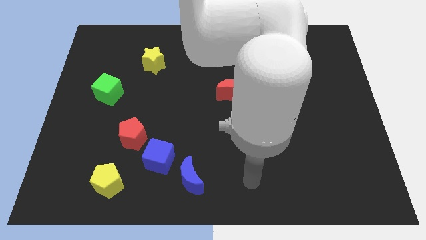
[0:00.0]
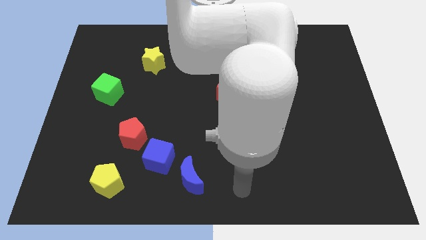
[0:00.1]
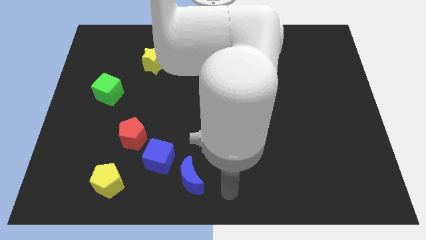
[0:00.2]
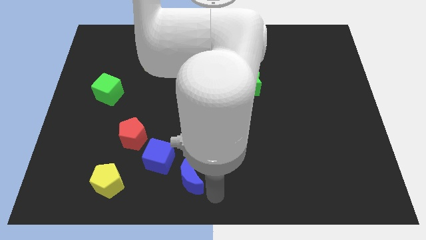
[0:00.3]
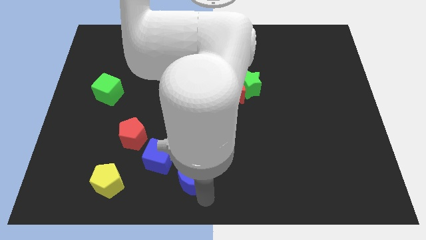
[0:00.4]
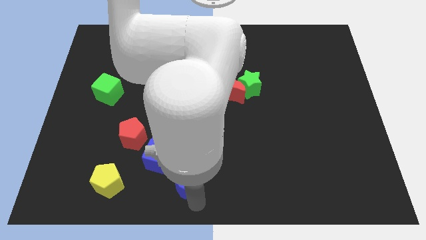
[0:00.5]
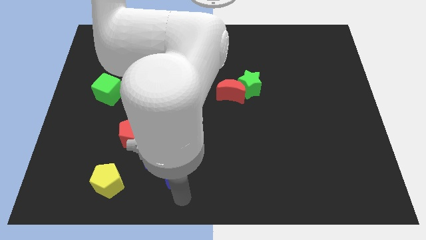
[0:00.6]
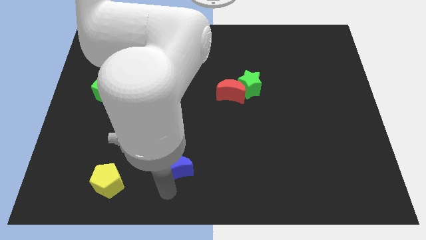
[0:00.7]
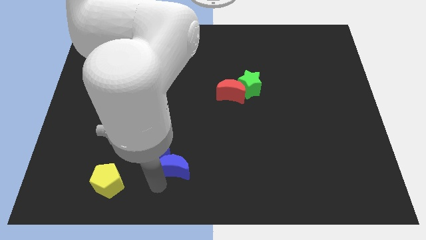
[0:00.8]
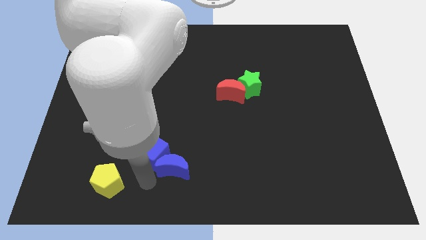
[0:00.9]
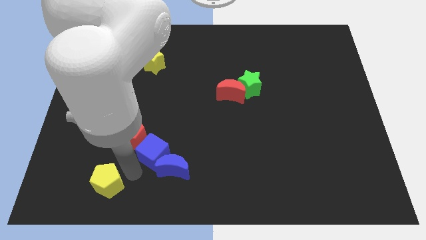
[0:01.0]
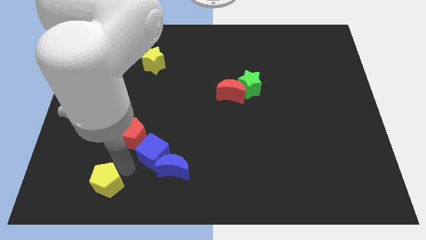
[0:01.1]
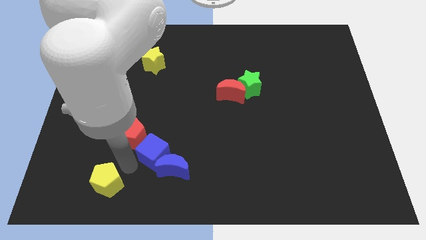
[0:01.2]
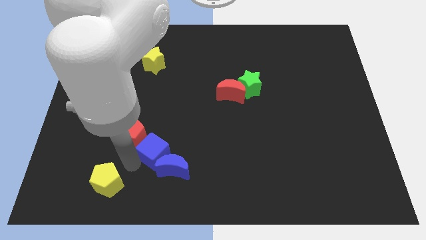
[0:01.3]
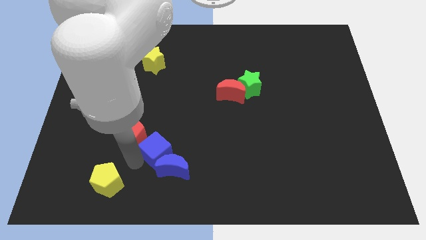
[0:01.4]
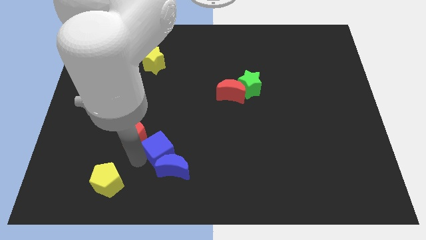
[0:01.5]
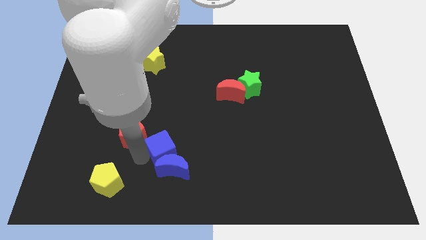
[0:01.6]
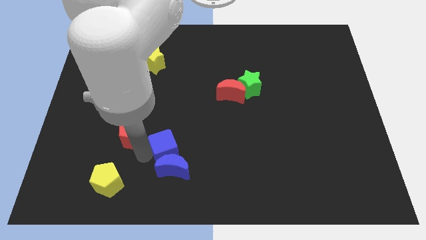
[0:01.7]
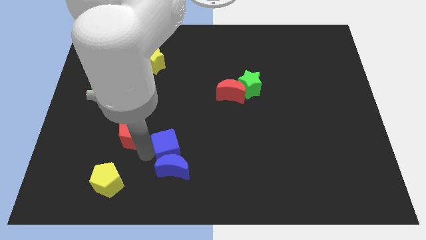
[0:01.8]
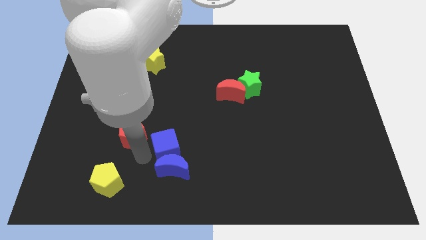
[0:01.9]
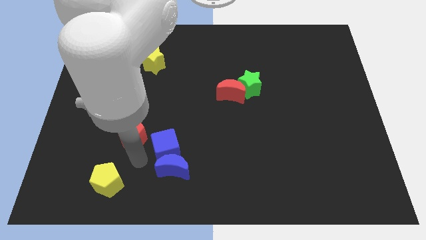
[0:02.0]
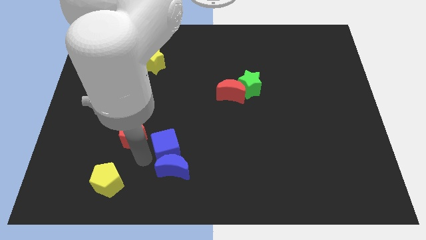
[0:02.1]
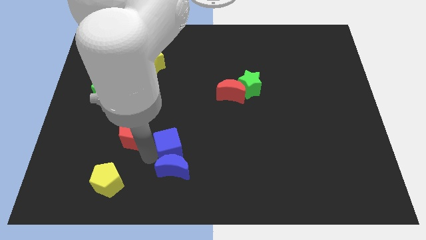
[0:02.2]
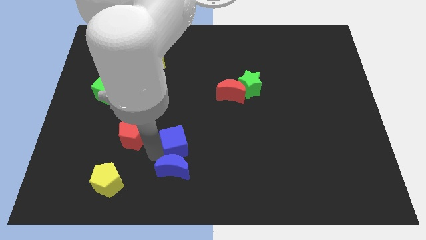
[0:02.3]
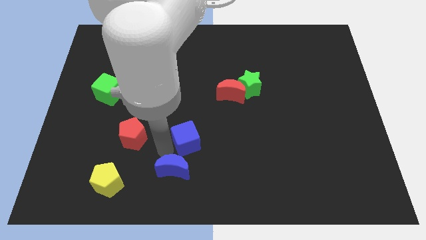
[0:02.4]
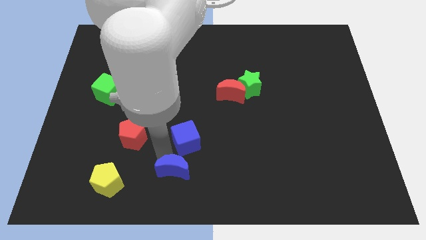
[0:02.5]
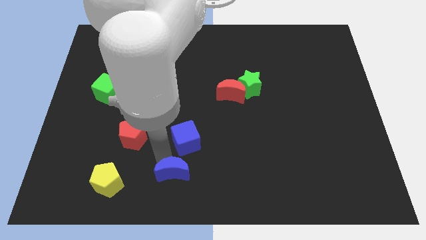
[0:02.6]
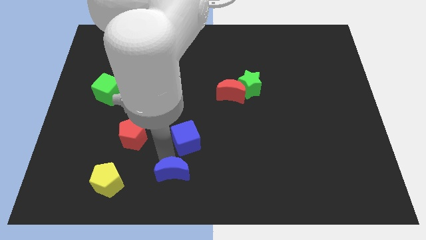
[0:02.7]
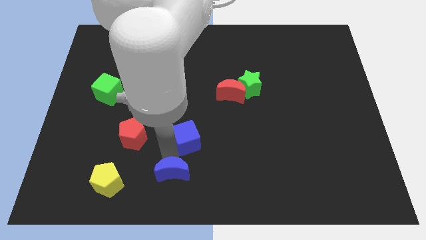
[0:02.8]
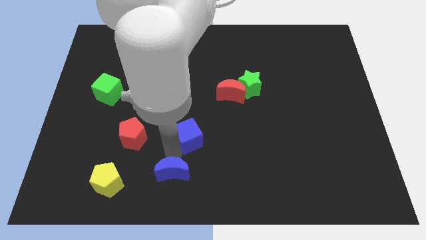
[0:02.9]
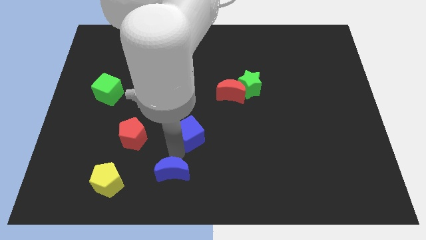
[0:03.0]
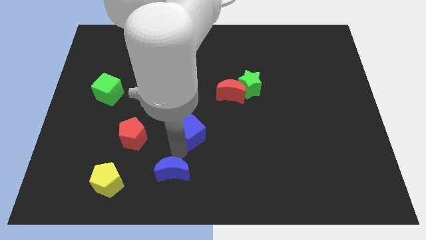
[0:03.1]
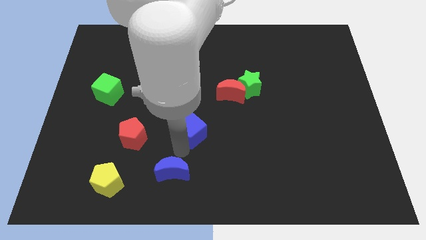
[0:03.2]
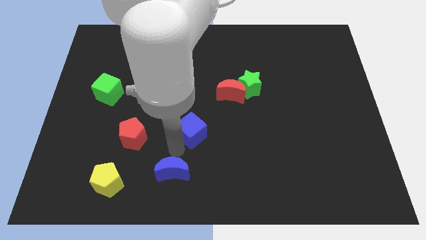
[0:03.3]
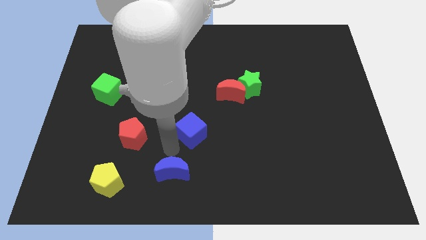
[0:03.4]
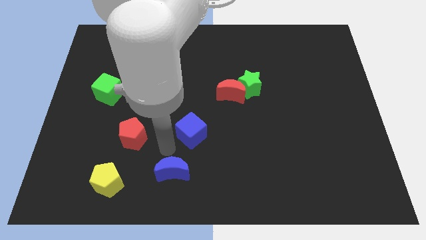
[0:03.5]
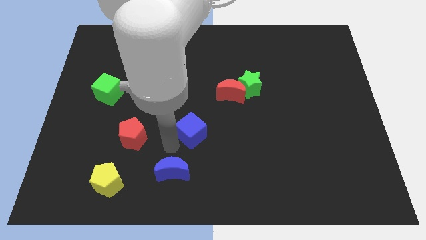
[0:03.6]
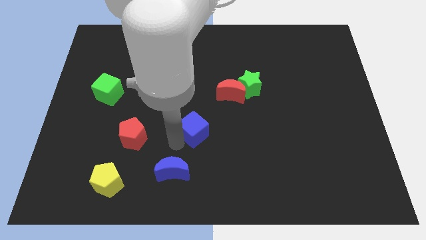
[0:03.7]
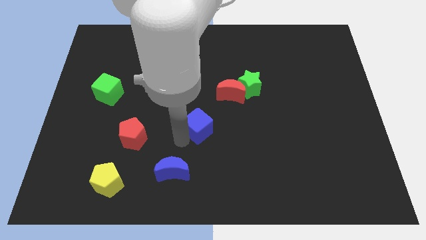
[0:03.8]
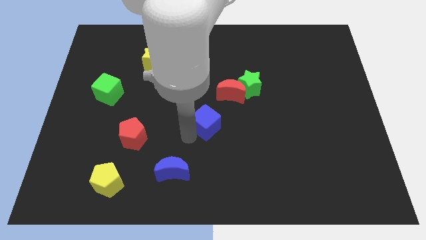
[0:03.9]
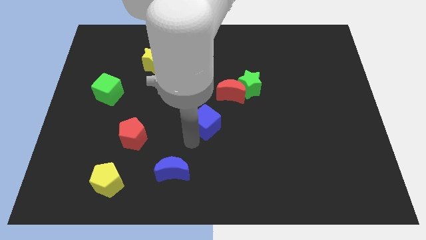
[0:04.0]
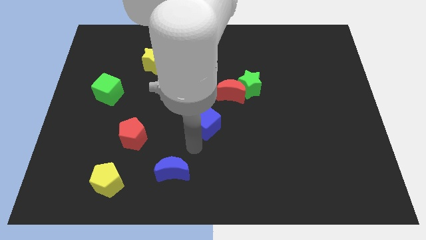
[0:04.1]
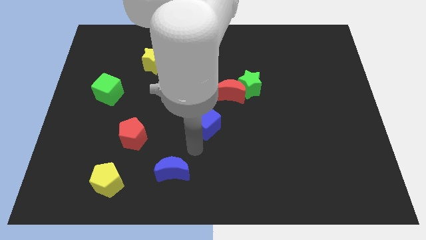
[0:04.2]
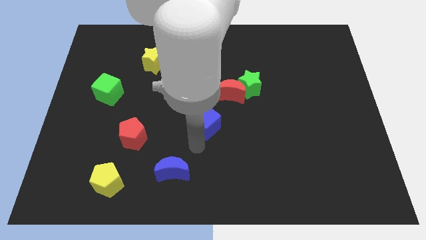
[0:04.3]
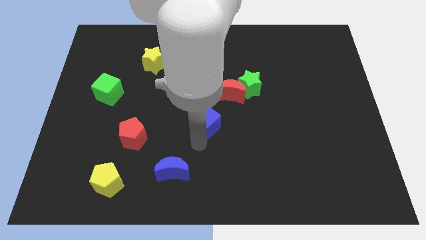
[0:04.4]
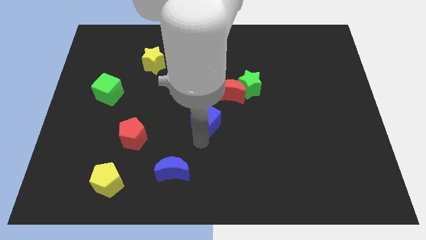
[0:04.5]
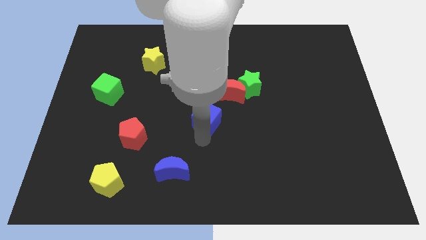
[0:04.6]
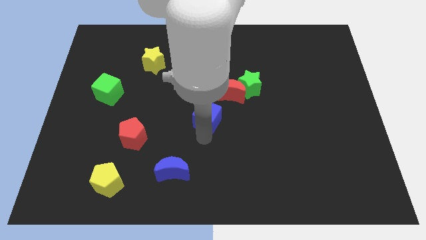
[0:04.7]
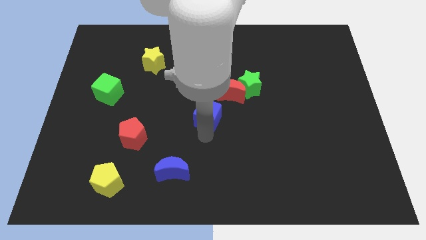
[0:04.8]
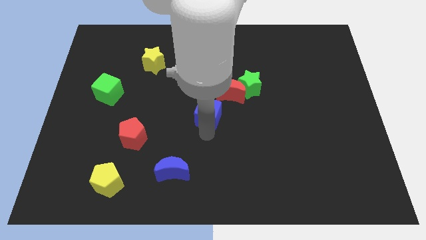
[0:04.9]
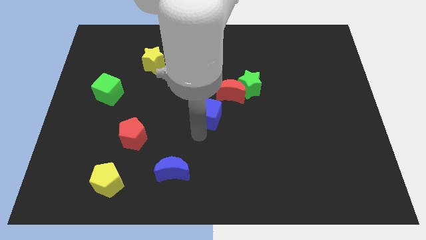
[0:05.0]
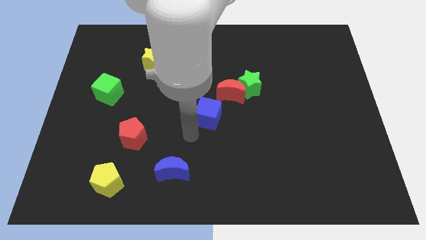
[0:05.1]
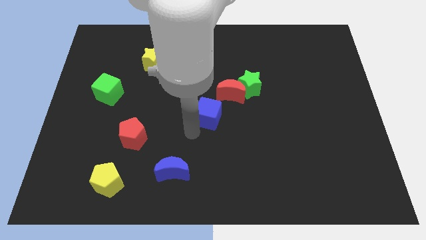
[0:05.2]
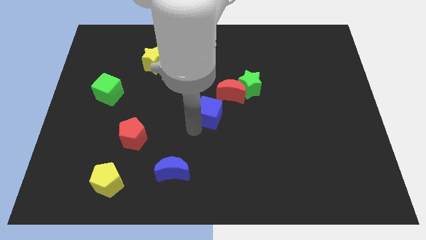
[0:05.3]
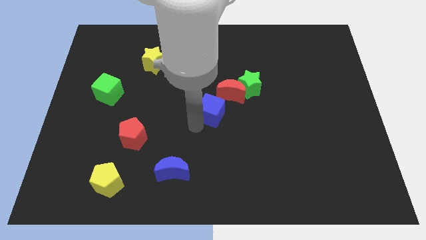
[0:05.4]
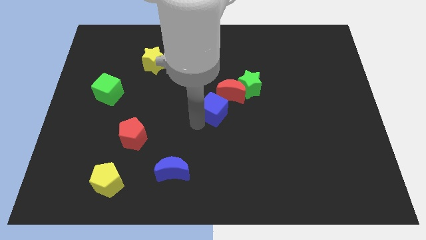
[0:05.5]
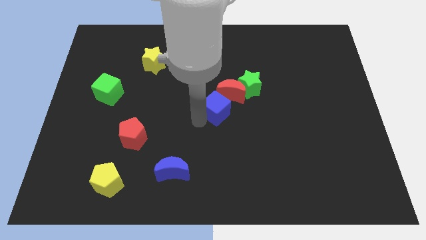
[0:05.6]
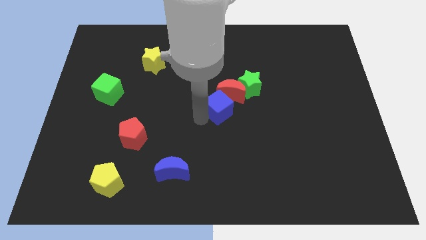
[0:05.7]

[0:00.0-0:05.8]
put the blue cube next to the red moon

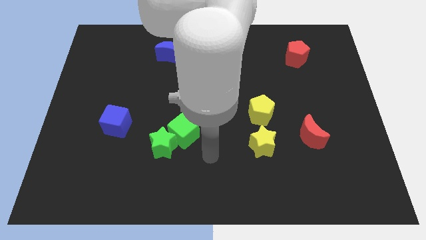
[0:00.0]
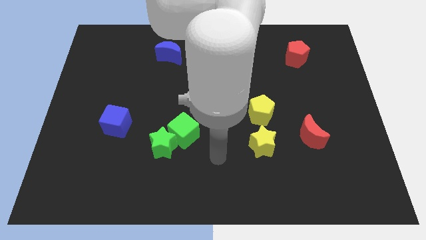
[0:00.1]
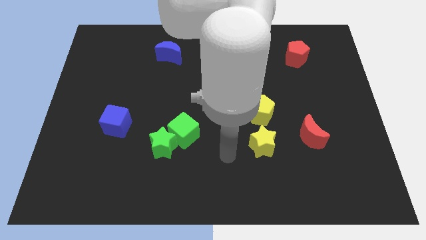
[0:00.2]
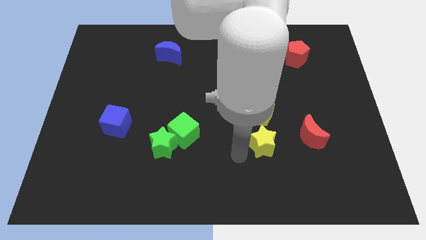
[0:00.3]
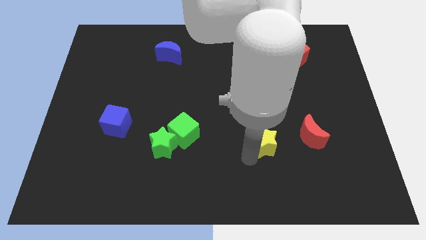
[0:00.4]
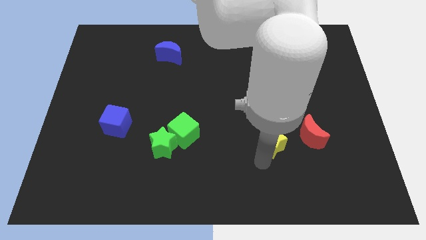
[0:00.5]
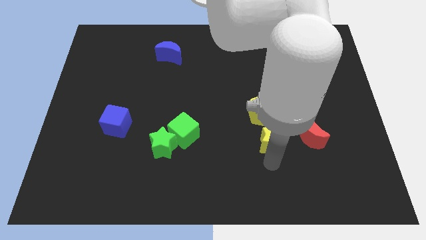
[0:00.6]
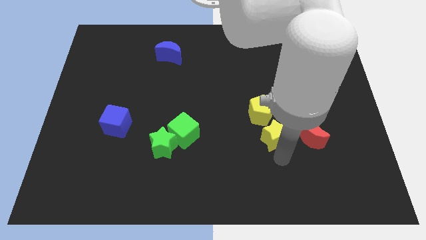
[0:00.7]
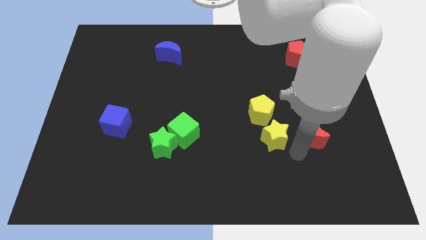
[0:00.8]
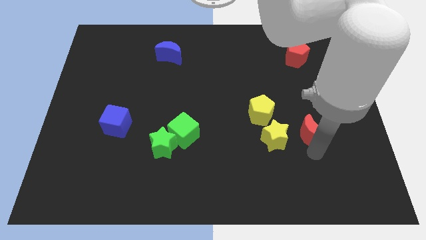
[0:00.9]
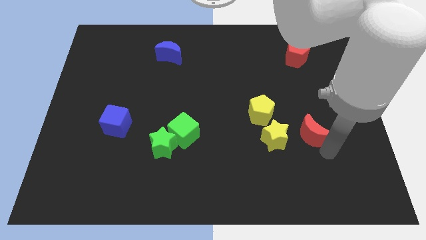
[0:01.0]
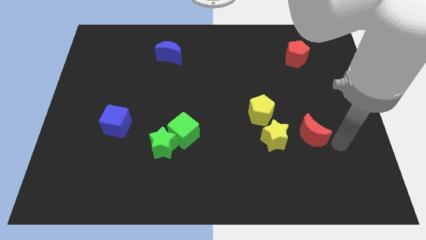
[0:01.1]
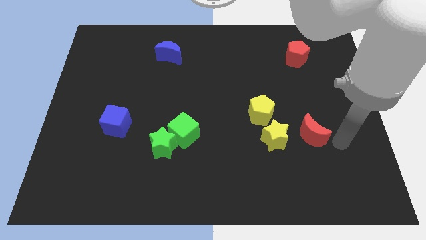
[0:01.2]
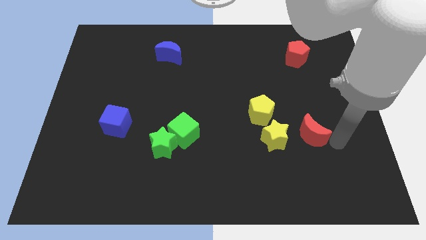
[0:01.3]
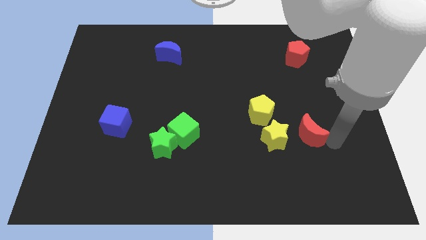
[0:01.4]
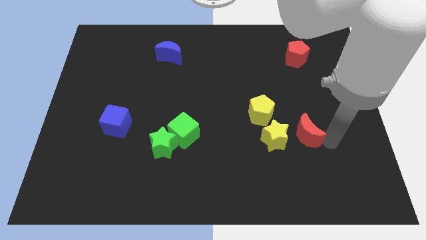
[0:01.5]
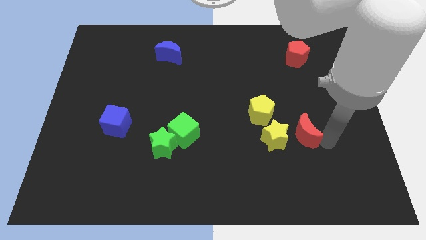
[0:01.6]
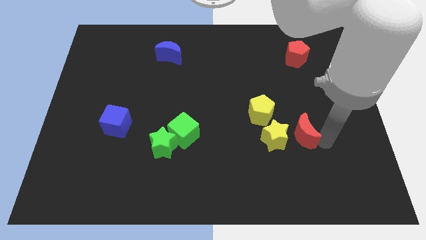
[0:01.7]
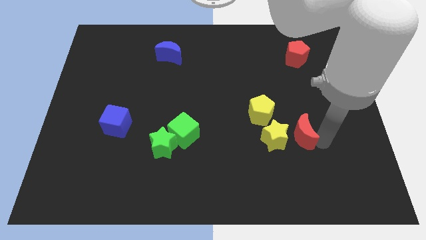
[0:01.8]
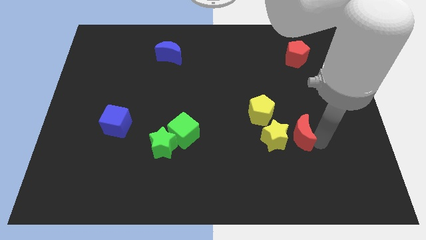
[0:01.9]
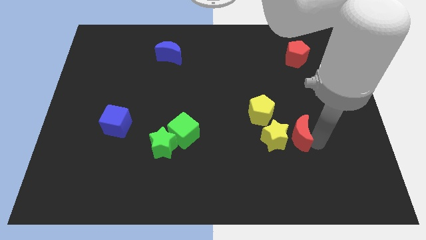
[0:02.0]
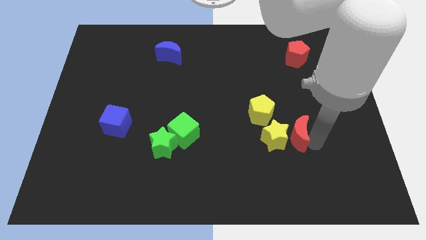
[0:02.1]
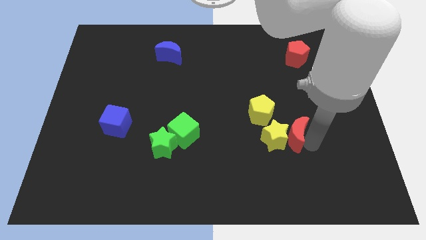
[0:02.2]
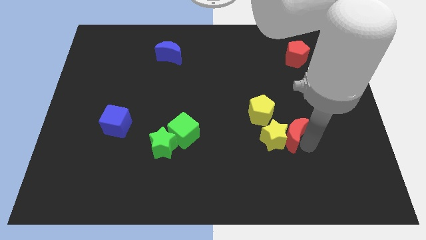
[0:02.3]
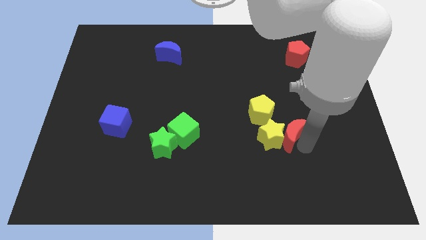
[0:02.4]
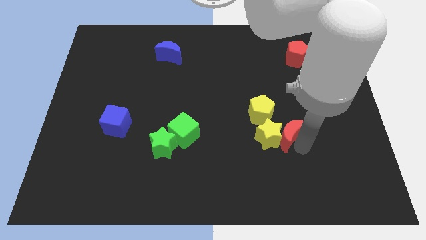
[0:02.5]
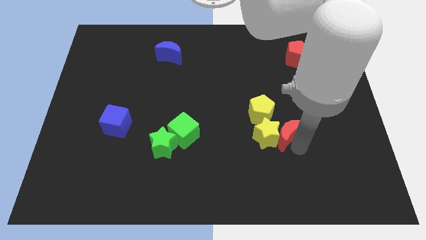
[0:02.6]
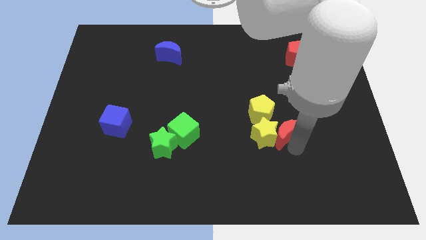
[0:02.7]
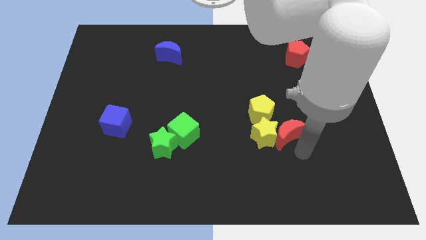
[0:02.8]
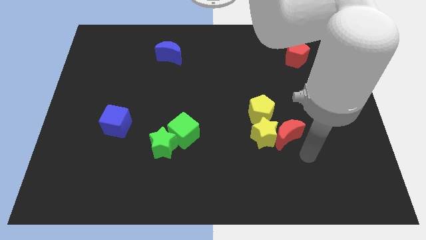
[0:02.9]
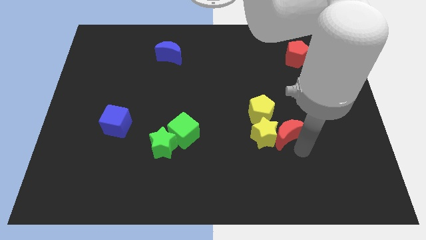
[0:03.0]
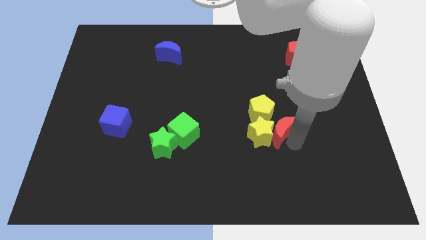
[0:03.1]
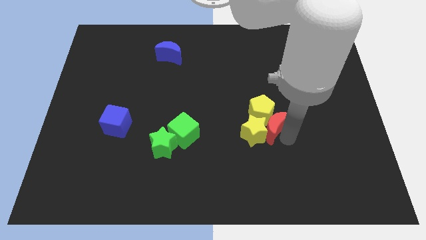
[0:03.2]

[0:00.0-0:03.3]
slide the red moon towards the yellow pentagon
